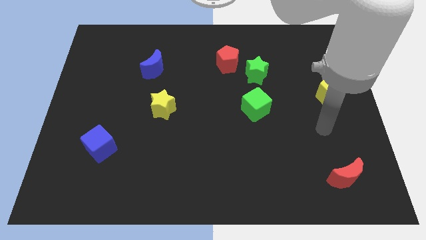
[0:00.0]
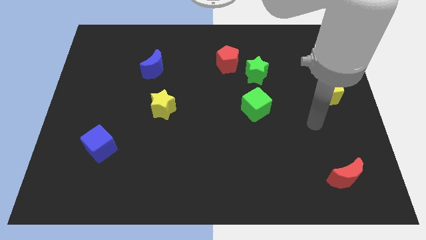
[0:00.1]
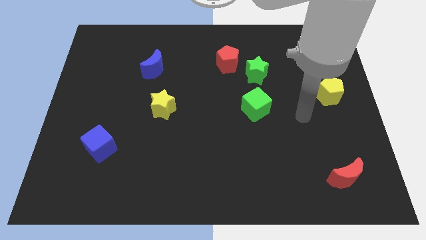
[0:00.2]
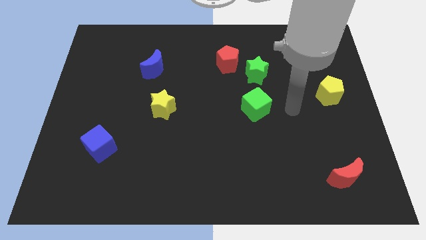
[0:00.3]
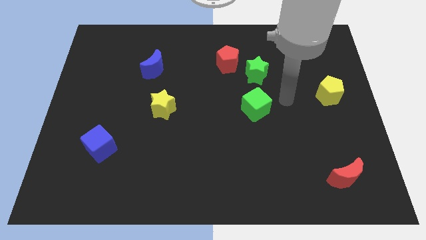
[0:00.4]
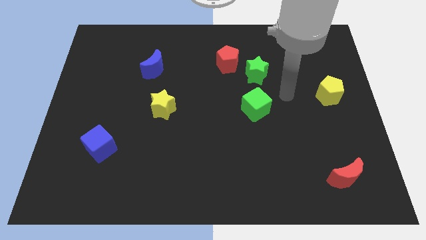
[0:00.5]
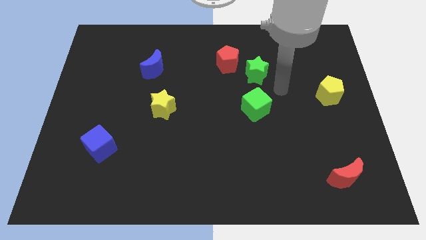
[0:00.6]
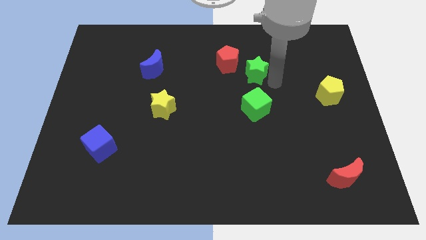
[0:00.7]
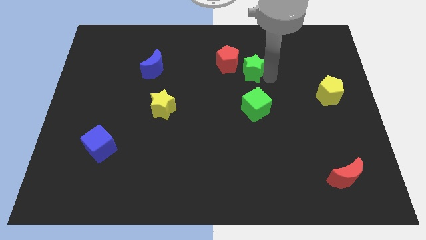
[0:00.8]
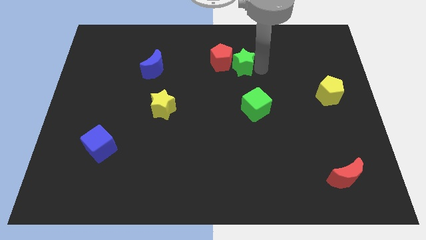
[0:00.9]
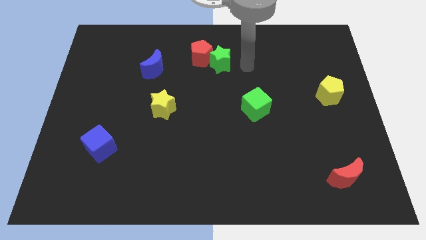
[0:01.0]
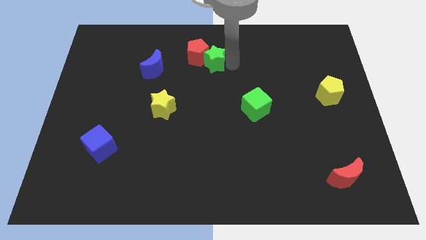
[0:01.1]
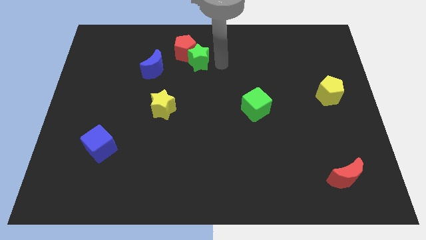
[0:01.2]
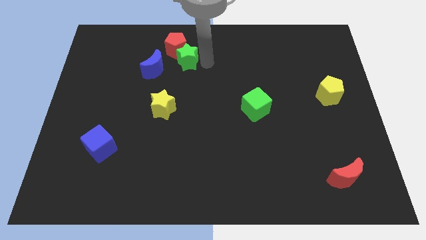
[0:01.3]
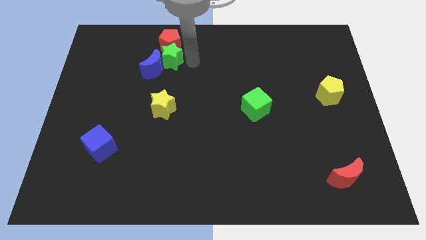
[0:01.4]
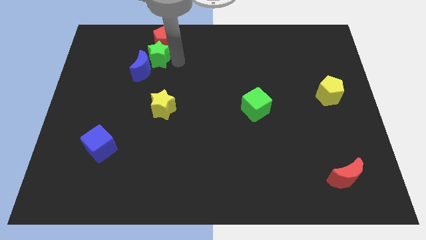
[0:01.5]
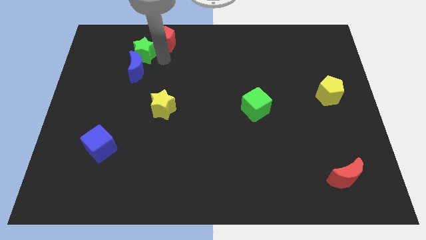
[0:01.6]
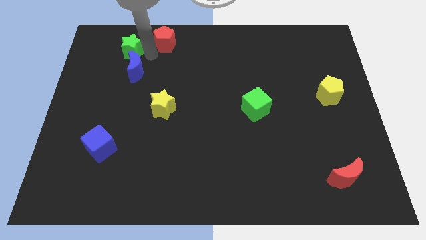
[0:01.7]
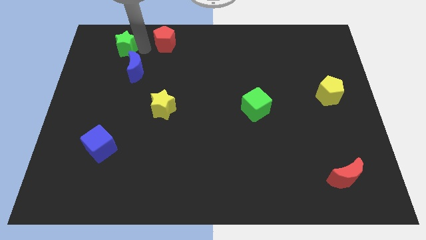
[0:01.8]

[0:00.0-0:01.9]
move the red pentagon away from the green star

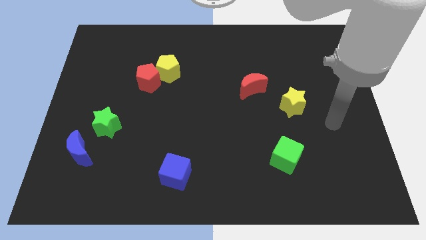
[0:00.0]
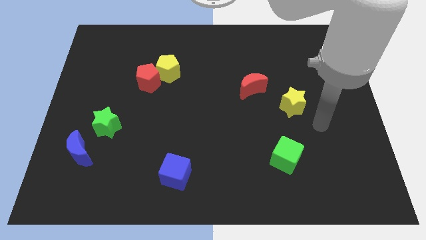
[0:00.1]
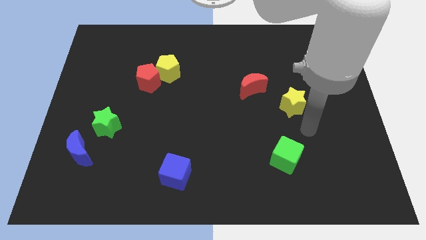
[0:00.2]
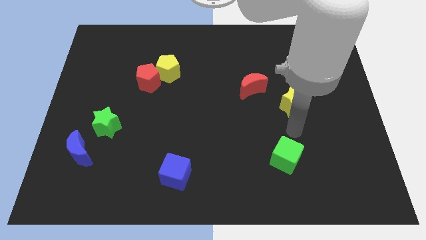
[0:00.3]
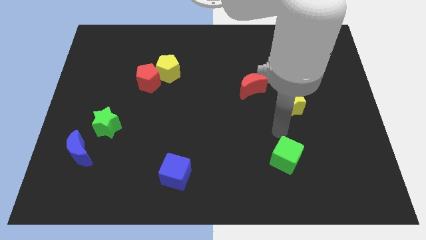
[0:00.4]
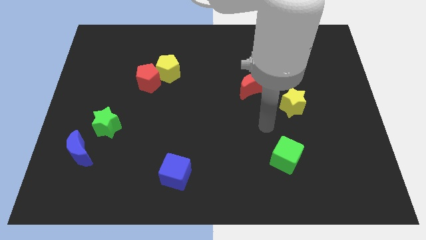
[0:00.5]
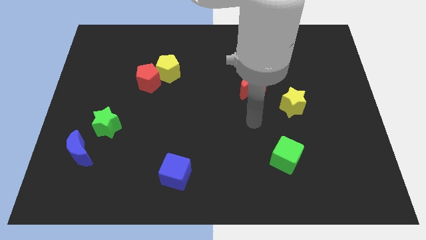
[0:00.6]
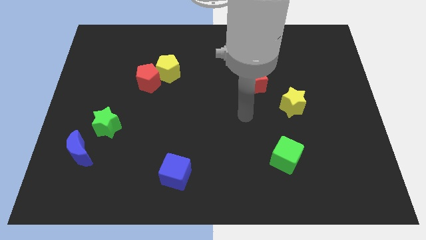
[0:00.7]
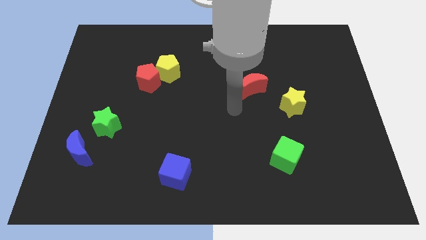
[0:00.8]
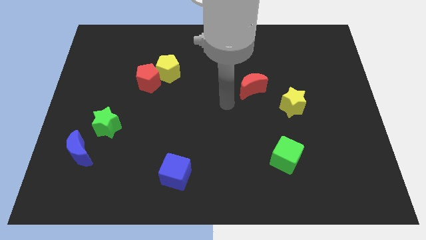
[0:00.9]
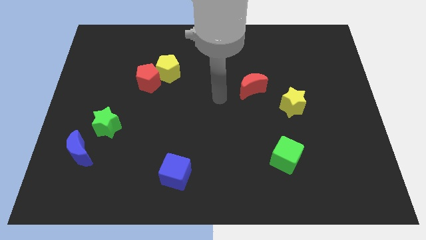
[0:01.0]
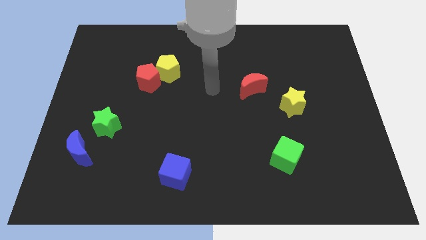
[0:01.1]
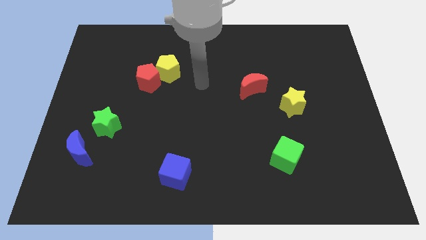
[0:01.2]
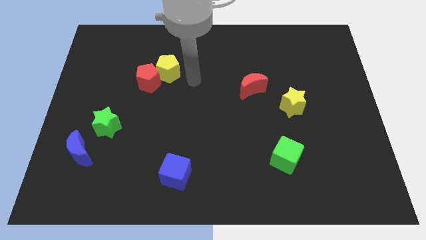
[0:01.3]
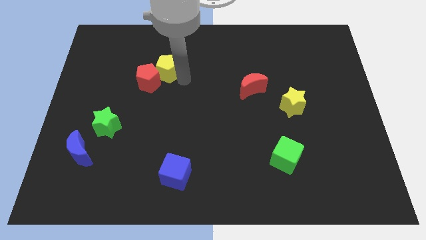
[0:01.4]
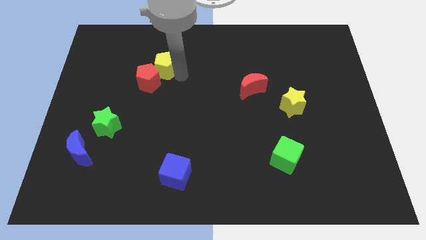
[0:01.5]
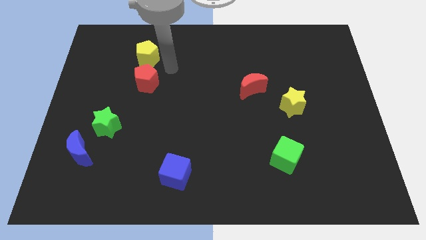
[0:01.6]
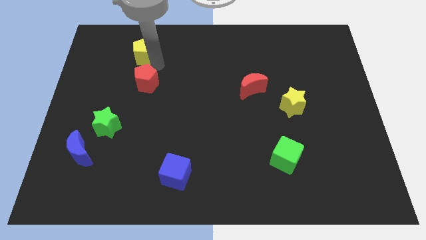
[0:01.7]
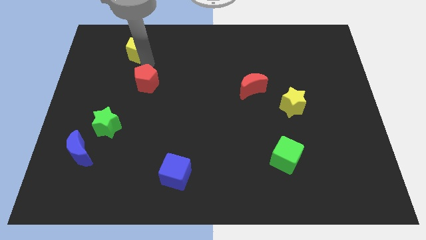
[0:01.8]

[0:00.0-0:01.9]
separate the red pentagon from the yellow pentagon

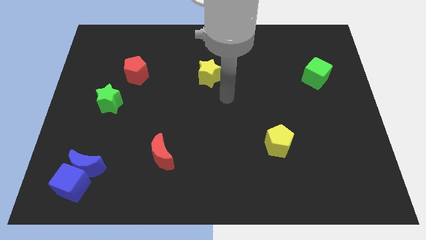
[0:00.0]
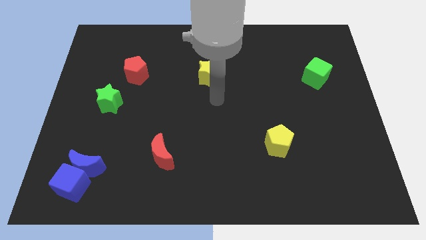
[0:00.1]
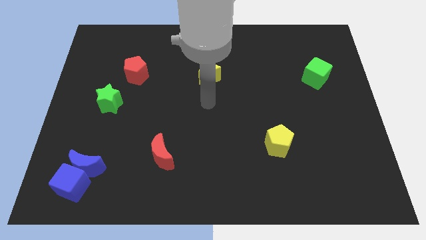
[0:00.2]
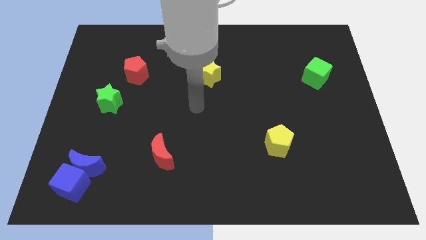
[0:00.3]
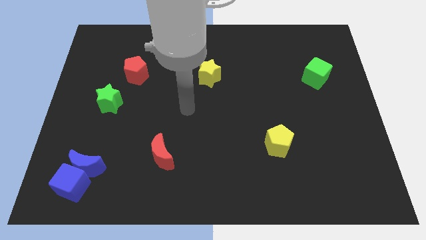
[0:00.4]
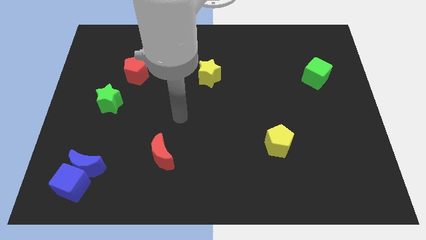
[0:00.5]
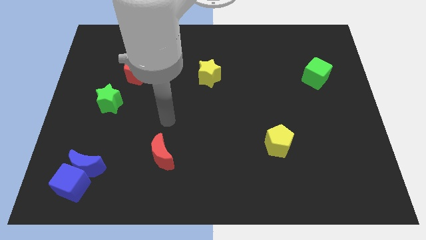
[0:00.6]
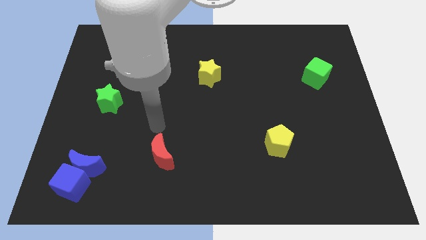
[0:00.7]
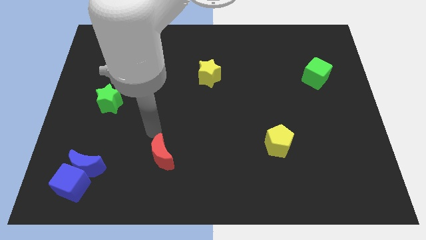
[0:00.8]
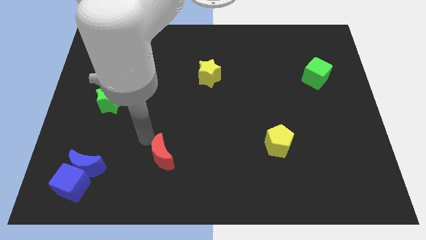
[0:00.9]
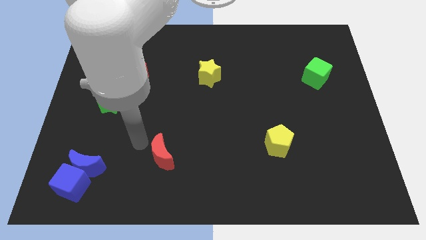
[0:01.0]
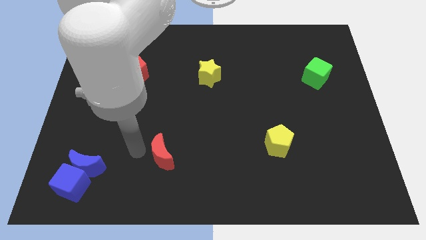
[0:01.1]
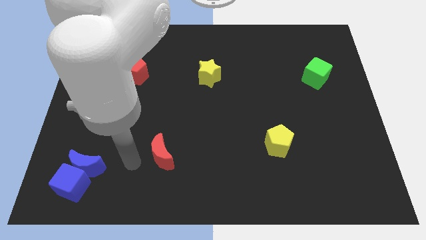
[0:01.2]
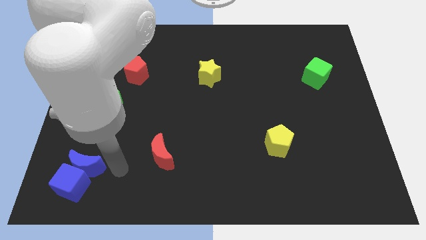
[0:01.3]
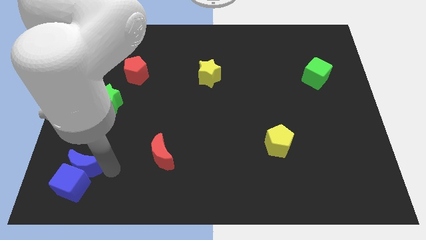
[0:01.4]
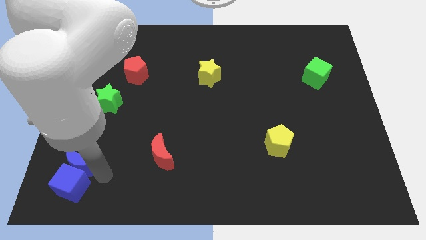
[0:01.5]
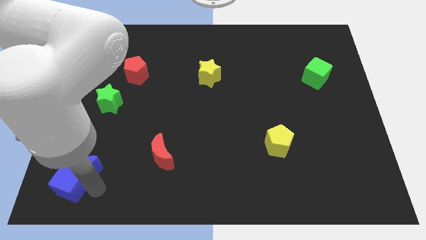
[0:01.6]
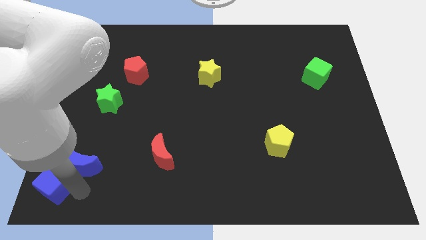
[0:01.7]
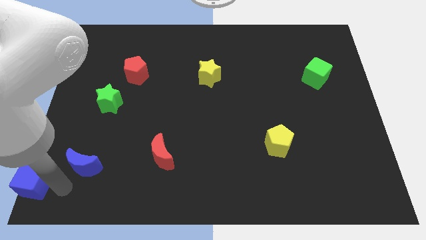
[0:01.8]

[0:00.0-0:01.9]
move the blue moon away from the blue cube

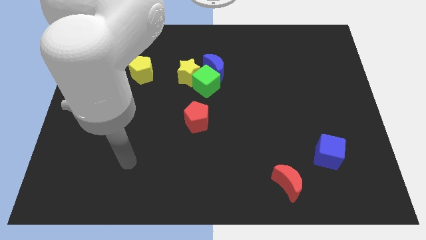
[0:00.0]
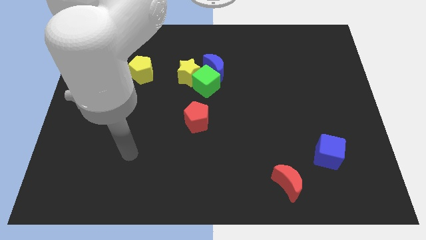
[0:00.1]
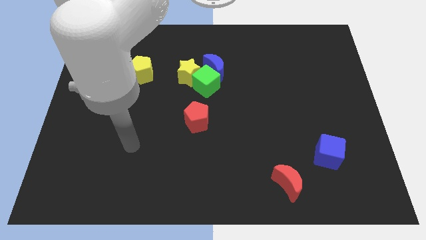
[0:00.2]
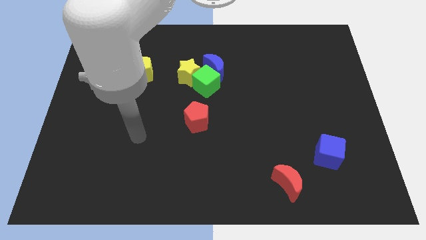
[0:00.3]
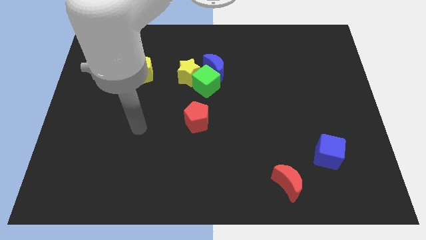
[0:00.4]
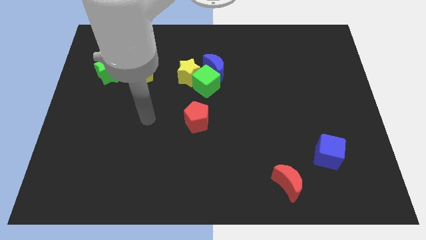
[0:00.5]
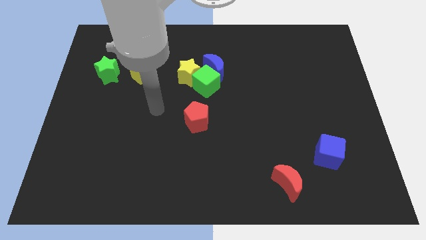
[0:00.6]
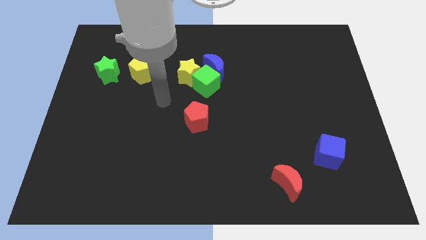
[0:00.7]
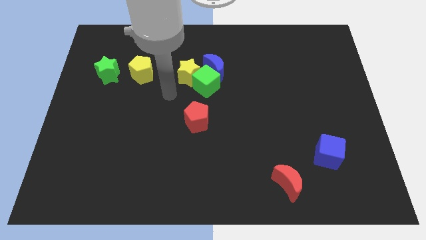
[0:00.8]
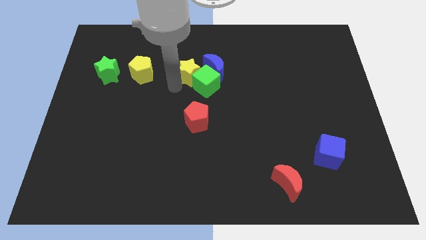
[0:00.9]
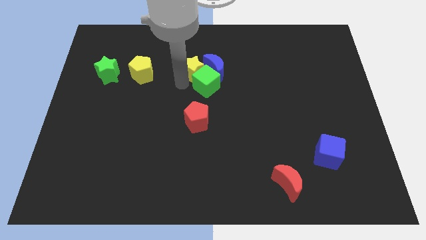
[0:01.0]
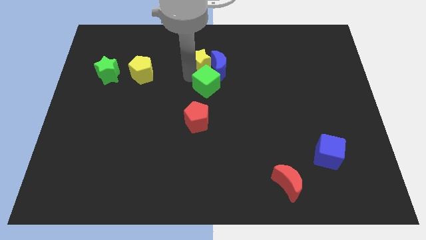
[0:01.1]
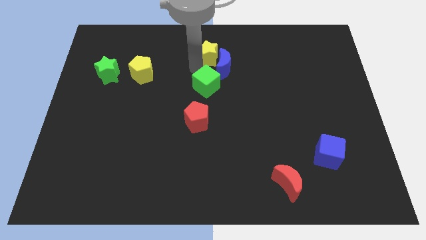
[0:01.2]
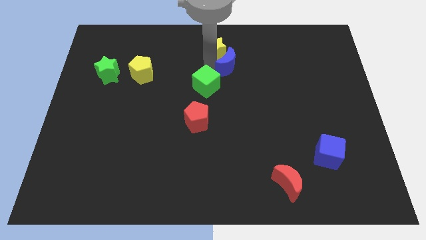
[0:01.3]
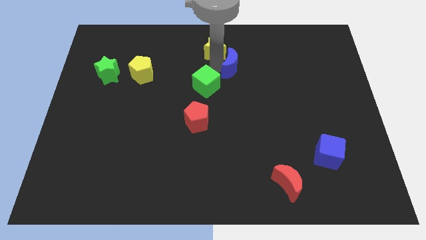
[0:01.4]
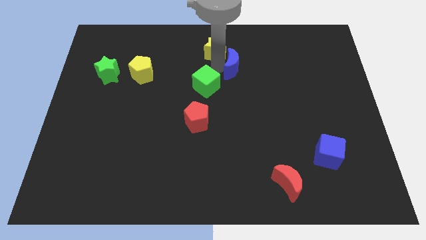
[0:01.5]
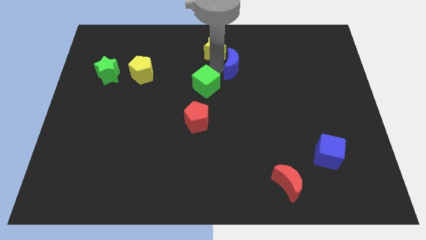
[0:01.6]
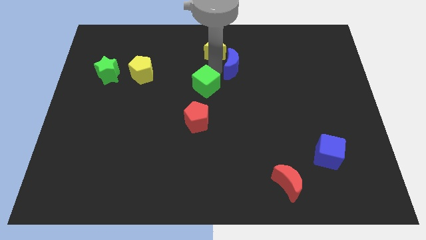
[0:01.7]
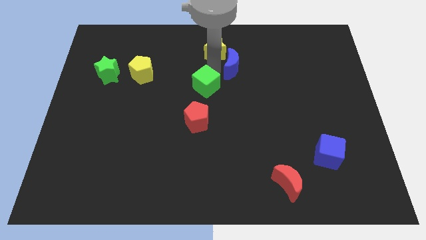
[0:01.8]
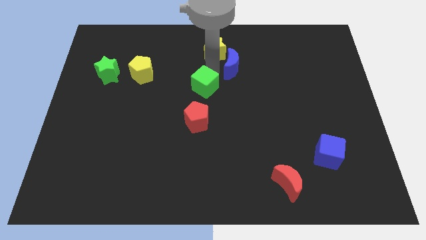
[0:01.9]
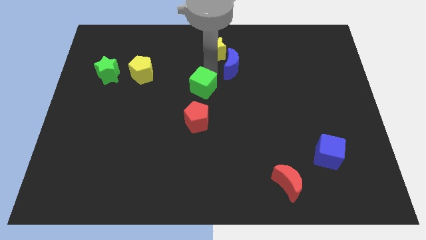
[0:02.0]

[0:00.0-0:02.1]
move the green cube away from the yellow star and blue moon

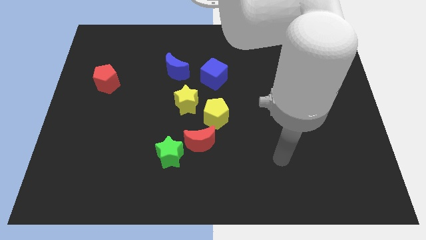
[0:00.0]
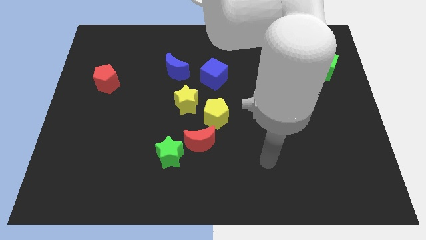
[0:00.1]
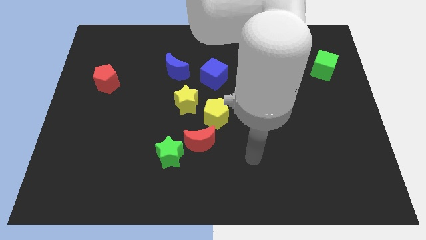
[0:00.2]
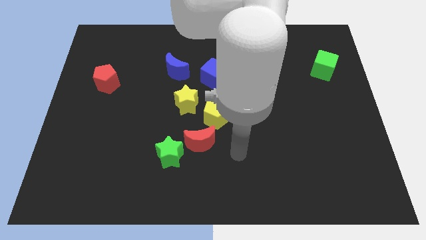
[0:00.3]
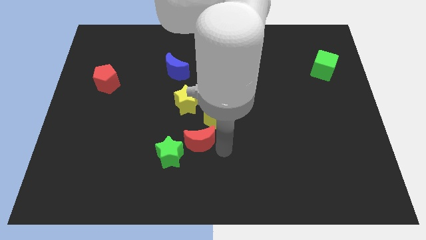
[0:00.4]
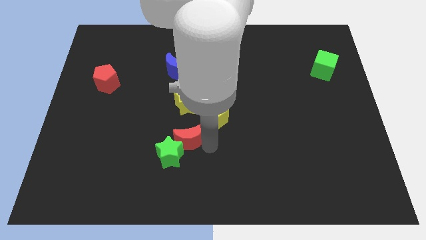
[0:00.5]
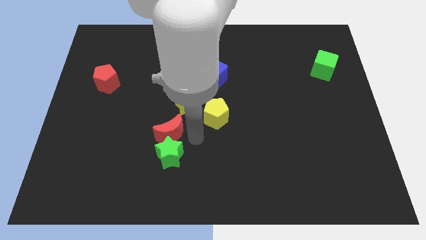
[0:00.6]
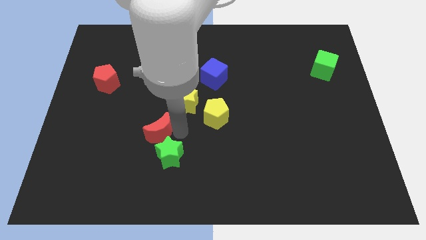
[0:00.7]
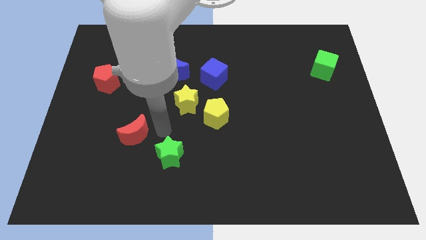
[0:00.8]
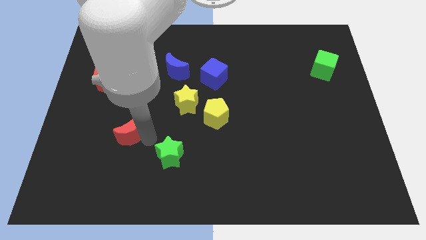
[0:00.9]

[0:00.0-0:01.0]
move the green star away from the red moon

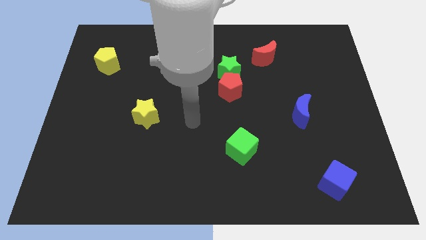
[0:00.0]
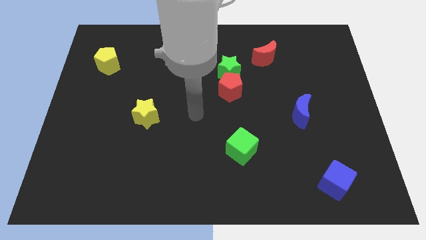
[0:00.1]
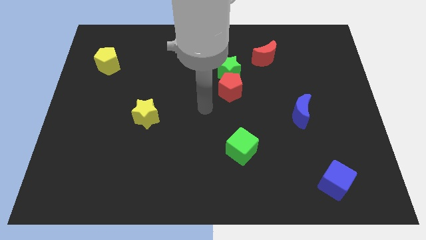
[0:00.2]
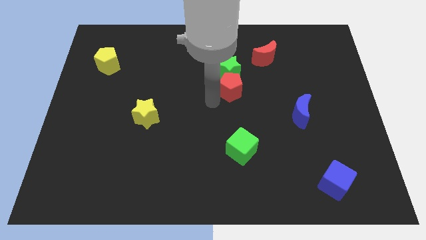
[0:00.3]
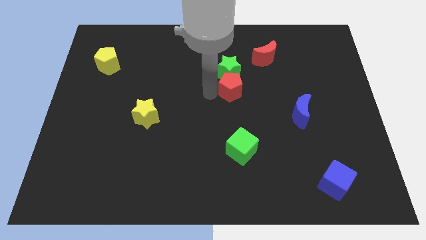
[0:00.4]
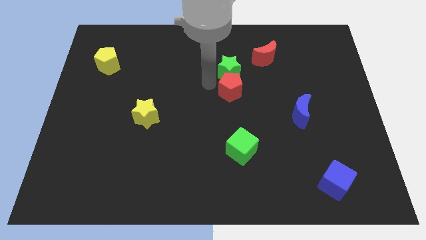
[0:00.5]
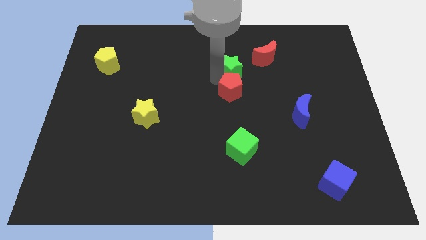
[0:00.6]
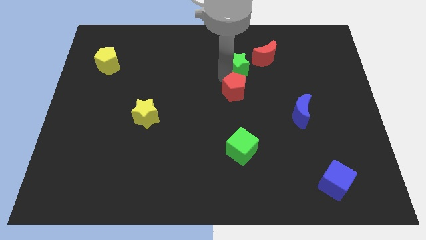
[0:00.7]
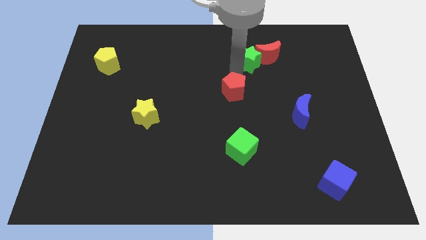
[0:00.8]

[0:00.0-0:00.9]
separate the red pentagon from the green star
